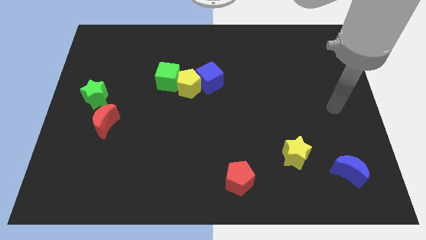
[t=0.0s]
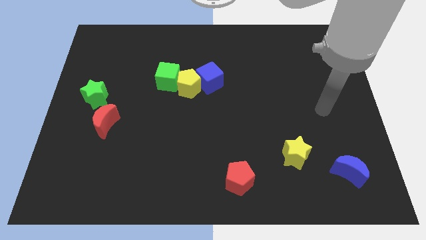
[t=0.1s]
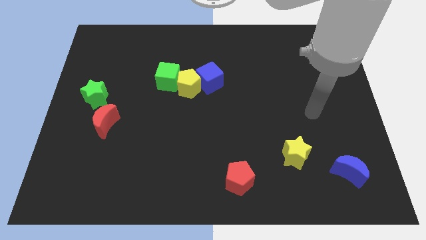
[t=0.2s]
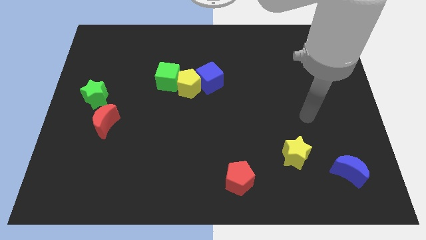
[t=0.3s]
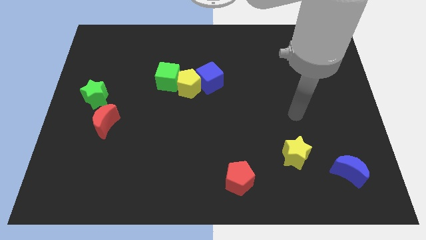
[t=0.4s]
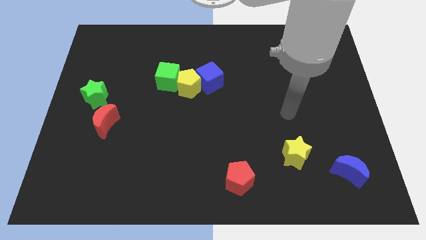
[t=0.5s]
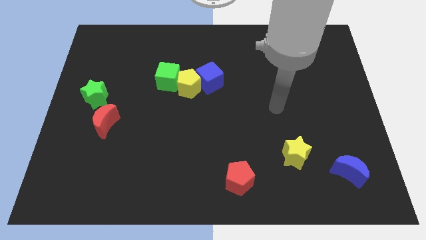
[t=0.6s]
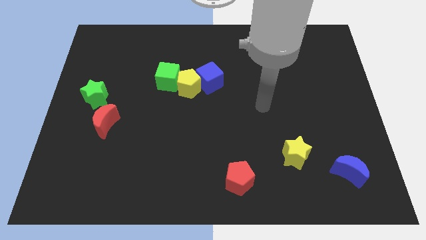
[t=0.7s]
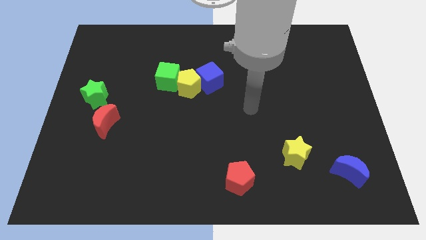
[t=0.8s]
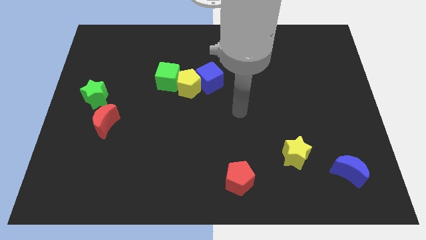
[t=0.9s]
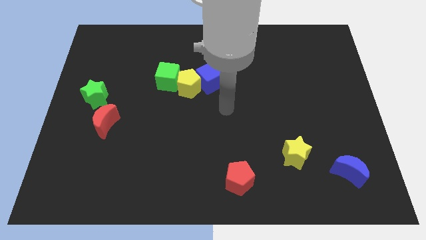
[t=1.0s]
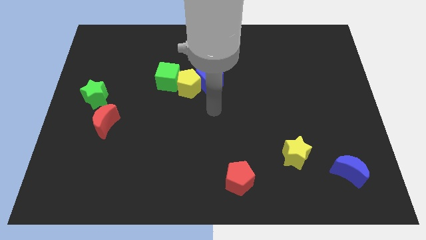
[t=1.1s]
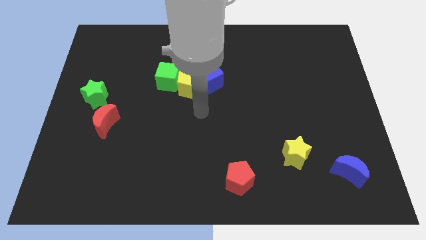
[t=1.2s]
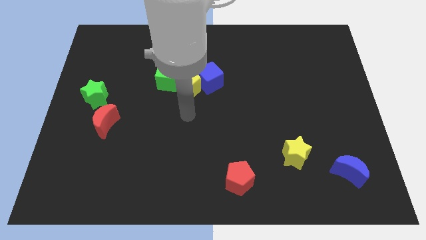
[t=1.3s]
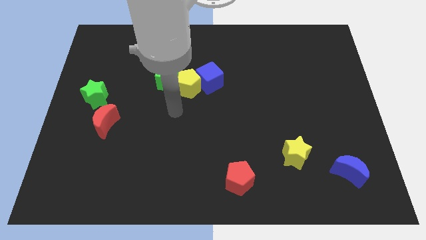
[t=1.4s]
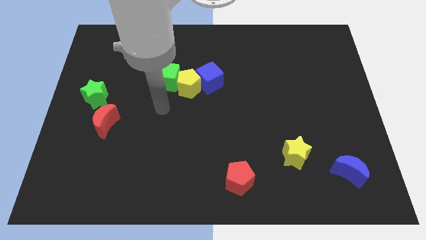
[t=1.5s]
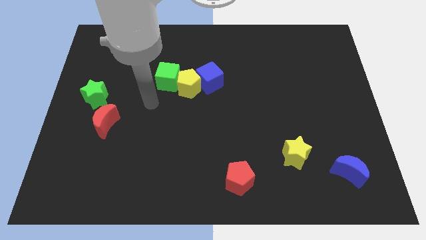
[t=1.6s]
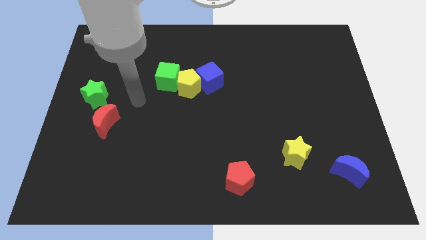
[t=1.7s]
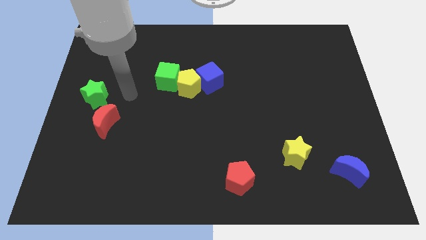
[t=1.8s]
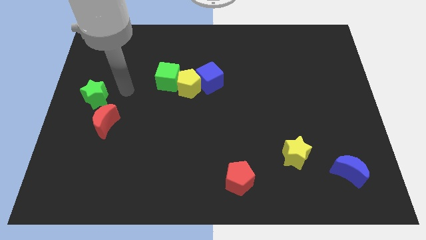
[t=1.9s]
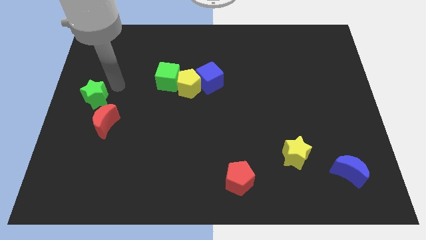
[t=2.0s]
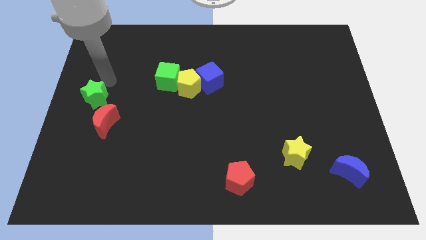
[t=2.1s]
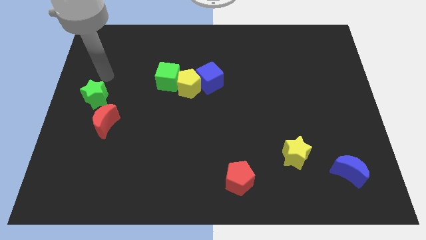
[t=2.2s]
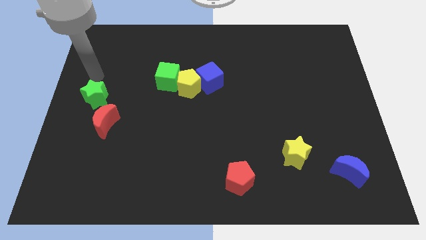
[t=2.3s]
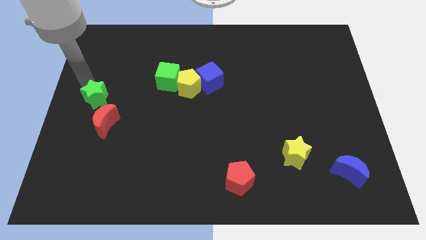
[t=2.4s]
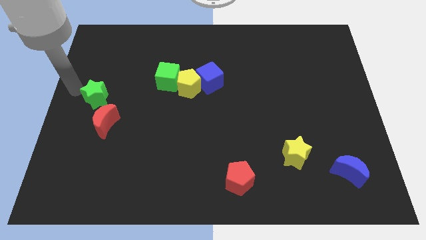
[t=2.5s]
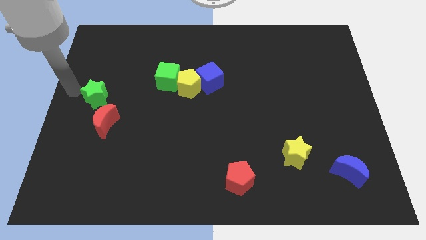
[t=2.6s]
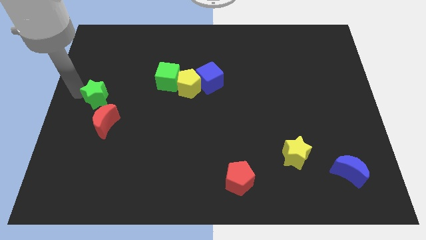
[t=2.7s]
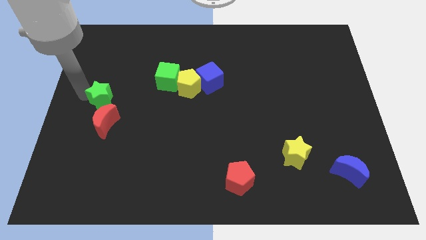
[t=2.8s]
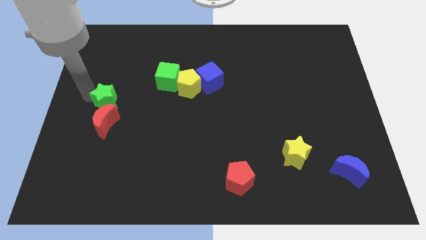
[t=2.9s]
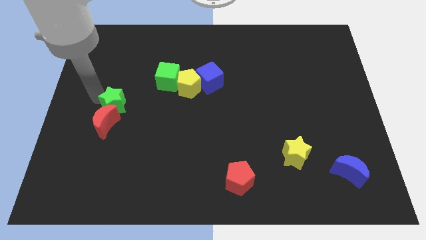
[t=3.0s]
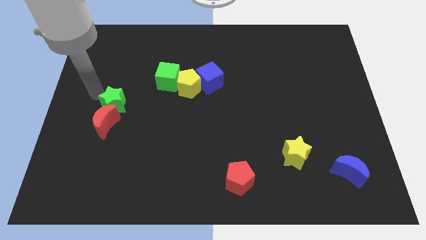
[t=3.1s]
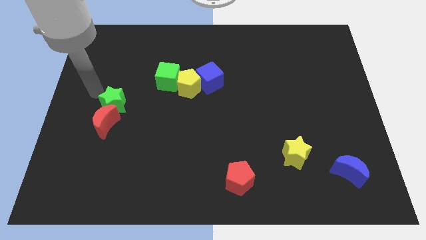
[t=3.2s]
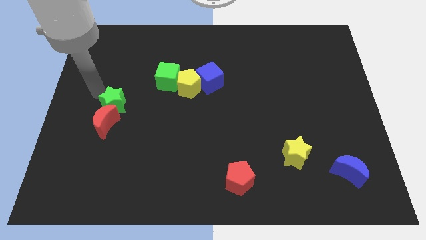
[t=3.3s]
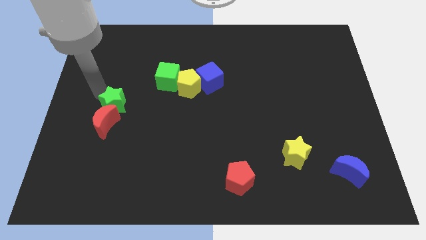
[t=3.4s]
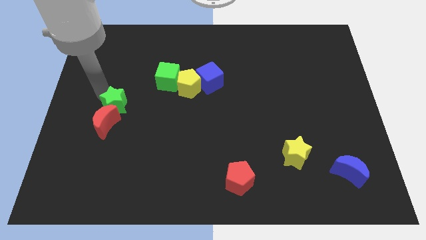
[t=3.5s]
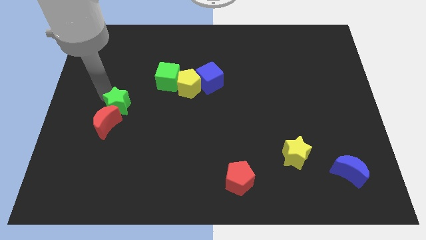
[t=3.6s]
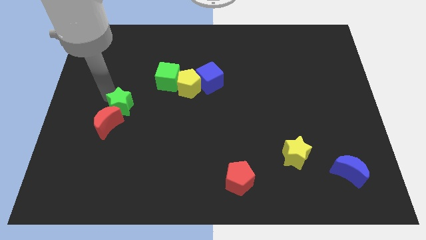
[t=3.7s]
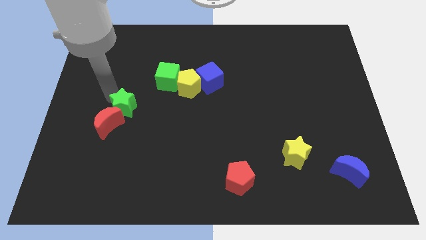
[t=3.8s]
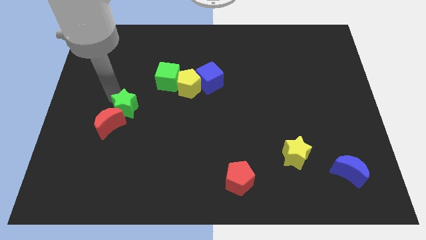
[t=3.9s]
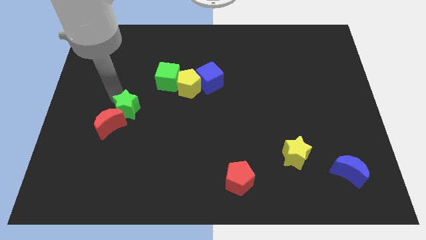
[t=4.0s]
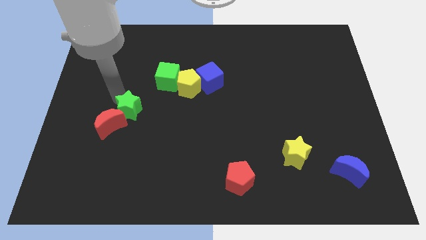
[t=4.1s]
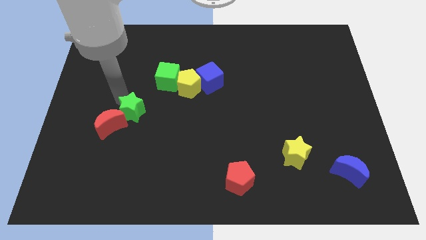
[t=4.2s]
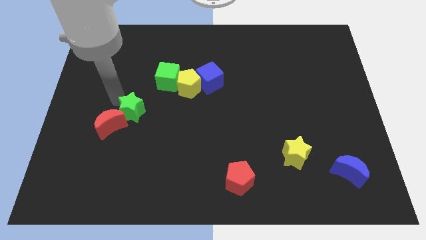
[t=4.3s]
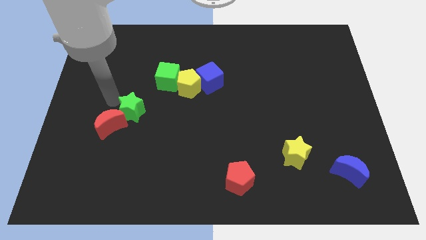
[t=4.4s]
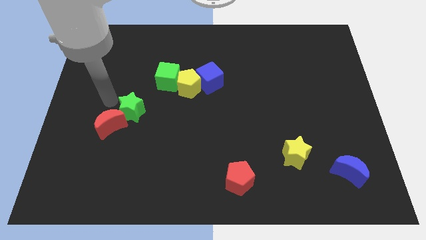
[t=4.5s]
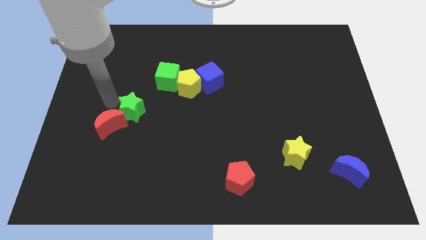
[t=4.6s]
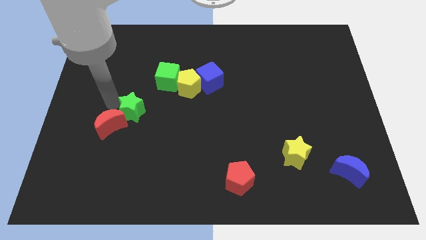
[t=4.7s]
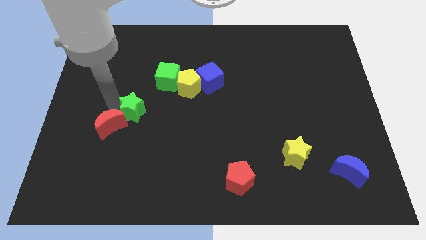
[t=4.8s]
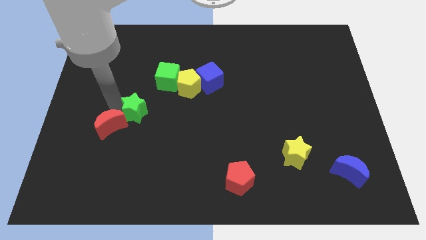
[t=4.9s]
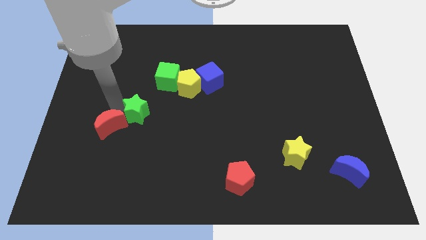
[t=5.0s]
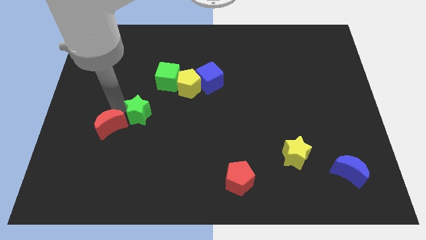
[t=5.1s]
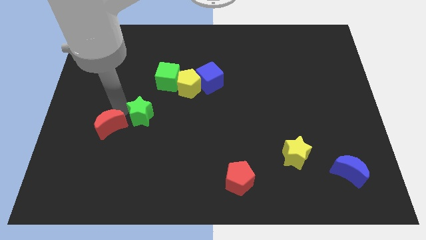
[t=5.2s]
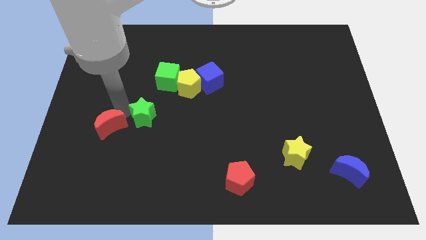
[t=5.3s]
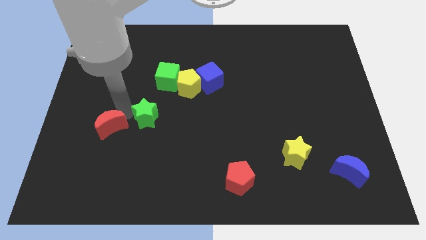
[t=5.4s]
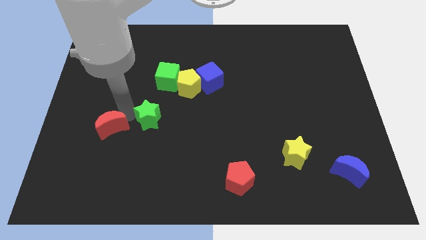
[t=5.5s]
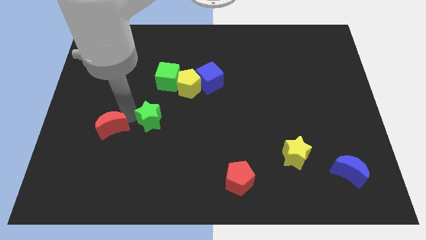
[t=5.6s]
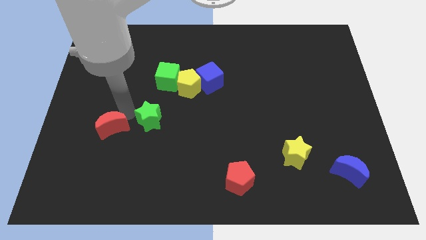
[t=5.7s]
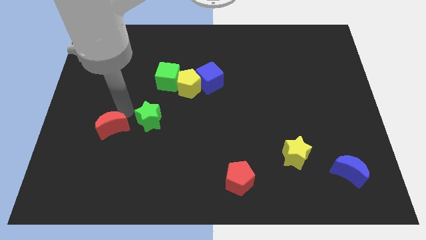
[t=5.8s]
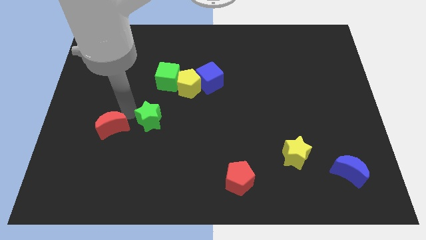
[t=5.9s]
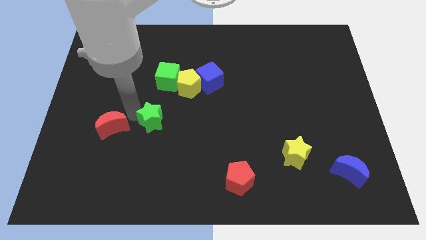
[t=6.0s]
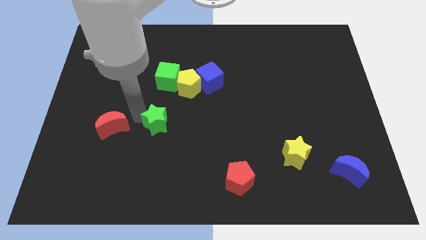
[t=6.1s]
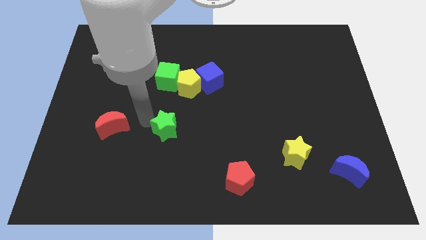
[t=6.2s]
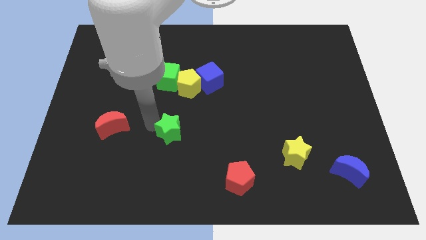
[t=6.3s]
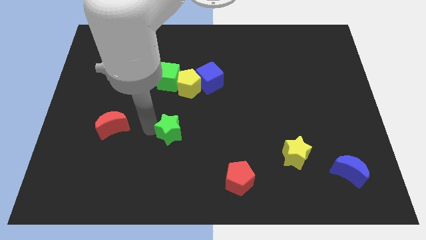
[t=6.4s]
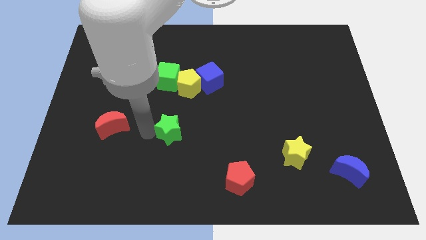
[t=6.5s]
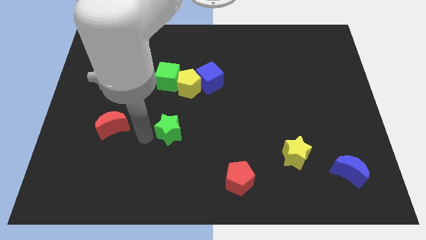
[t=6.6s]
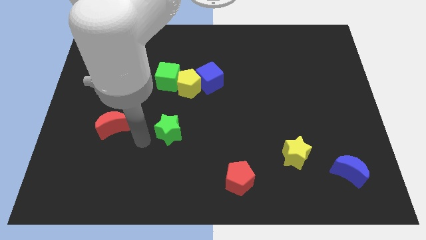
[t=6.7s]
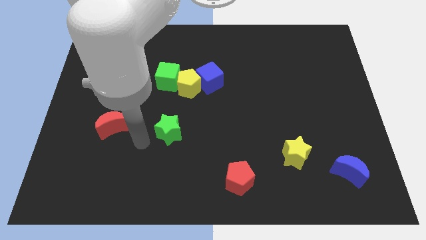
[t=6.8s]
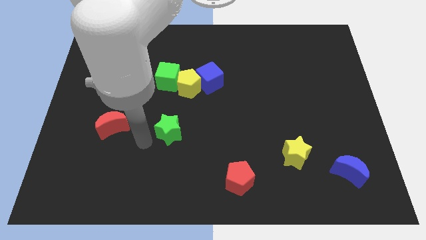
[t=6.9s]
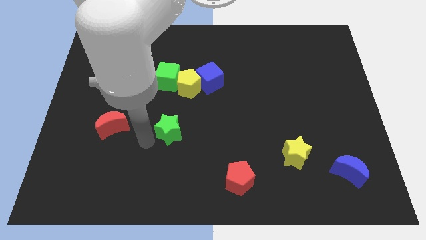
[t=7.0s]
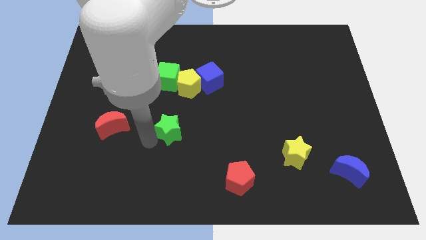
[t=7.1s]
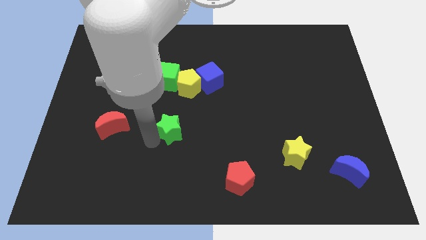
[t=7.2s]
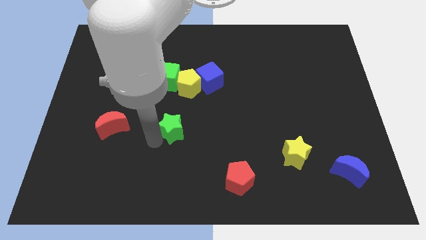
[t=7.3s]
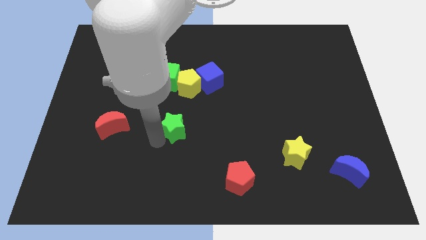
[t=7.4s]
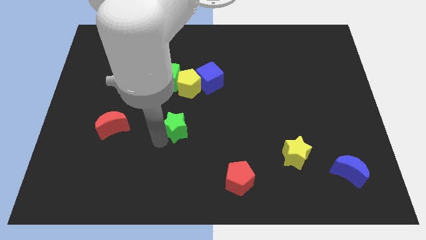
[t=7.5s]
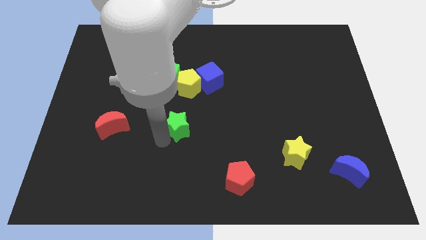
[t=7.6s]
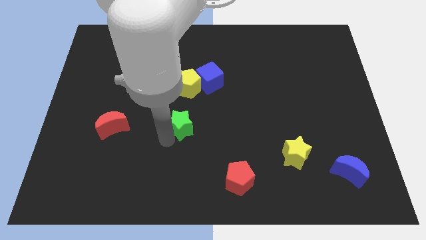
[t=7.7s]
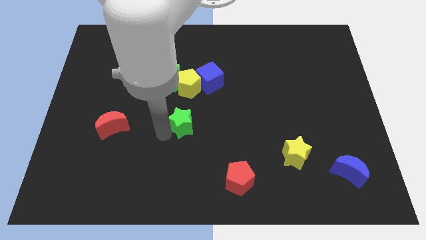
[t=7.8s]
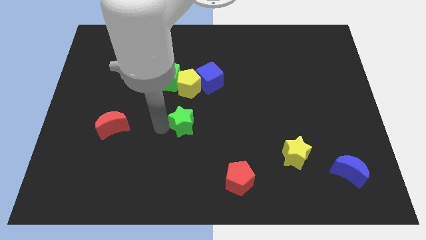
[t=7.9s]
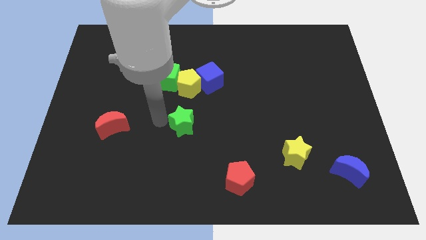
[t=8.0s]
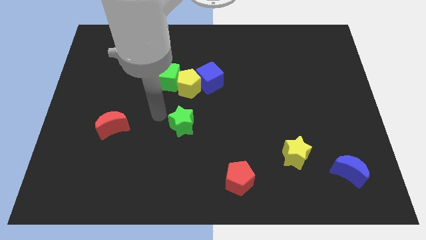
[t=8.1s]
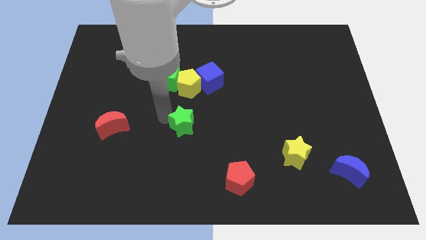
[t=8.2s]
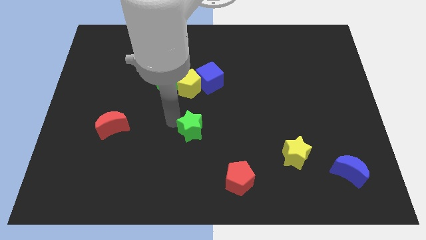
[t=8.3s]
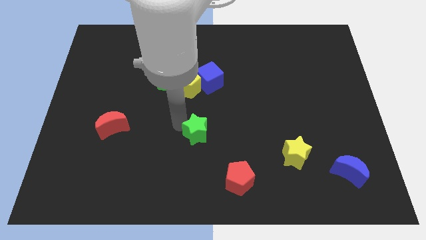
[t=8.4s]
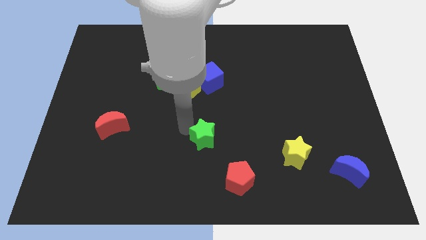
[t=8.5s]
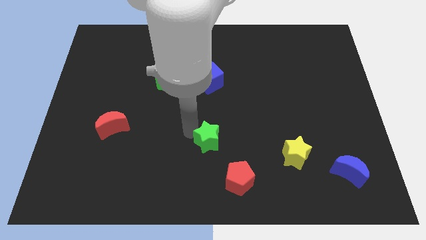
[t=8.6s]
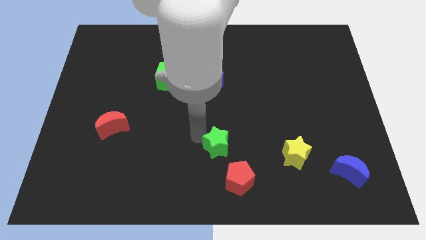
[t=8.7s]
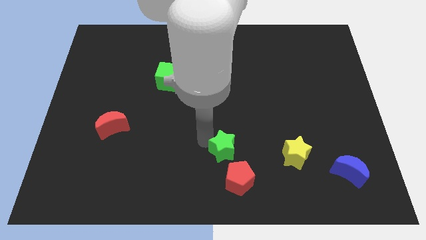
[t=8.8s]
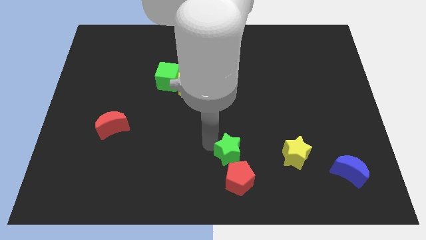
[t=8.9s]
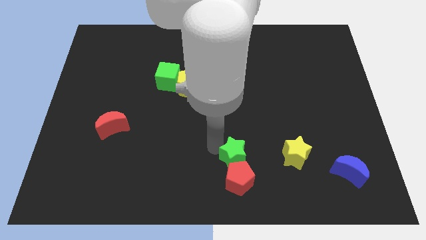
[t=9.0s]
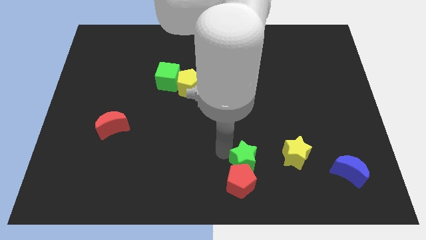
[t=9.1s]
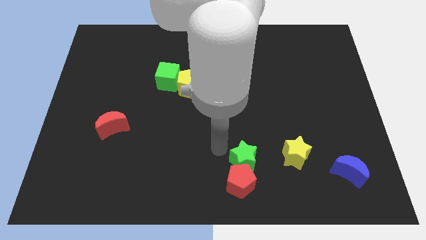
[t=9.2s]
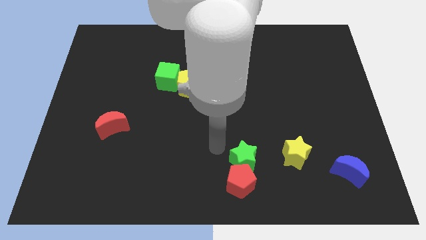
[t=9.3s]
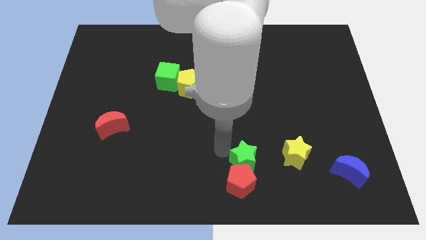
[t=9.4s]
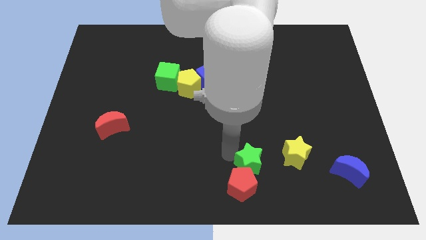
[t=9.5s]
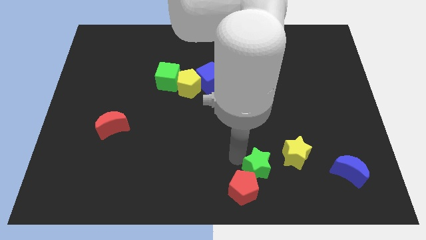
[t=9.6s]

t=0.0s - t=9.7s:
put the green star diagonally down and to the left of the yellow star
